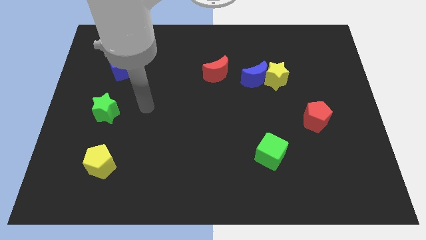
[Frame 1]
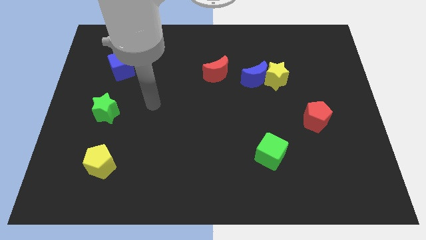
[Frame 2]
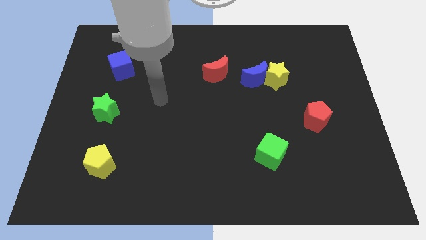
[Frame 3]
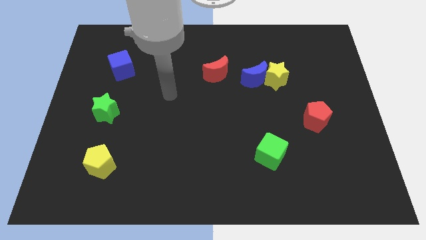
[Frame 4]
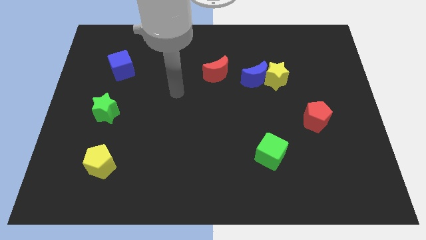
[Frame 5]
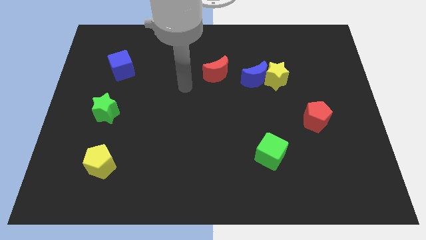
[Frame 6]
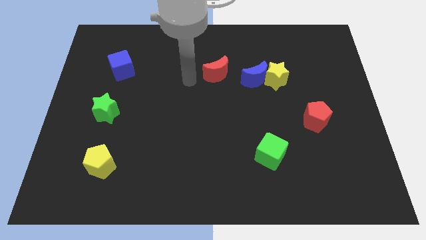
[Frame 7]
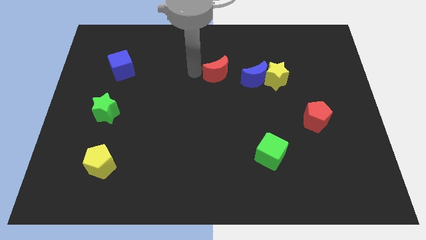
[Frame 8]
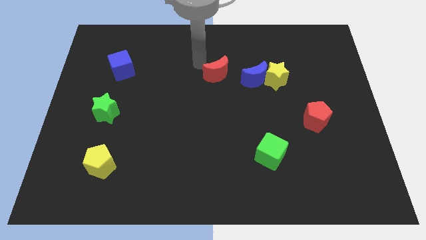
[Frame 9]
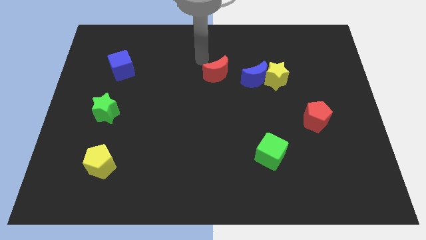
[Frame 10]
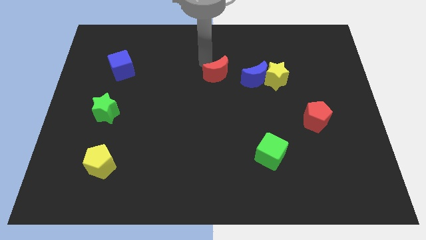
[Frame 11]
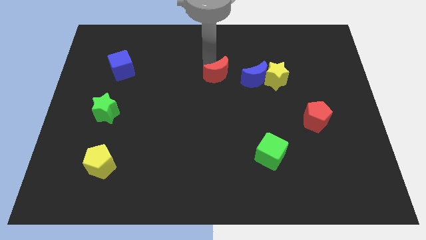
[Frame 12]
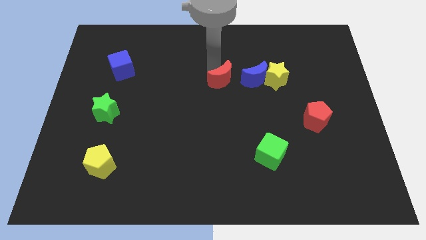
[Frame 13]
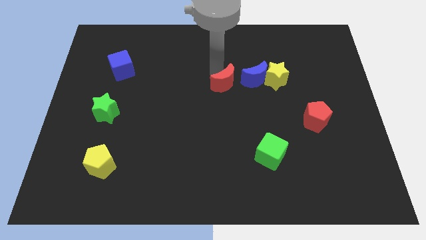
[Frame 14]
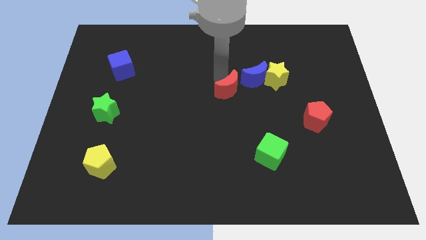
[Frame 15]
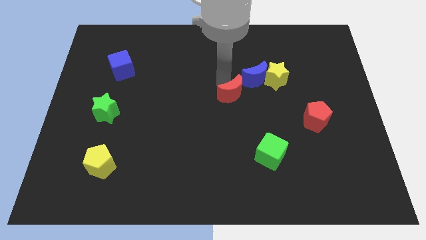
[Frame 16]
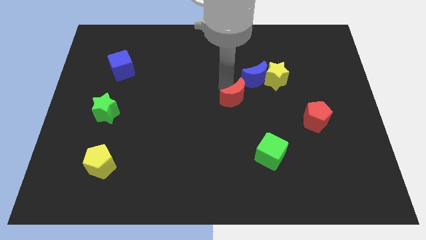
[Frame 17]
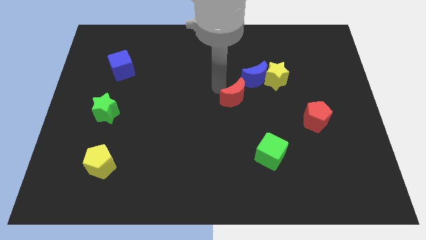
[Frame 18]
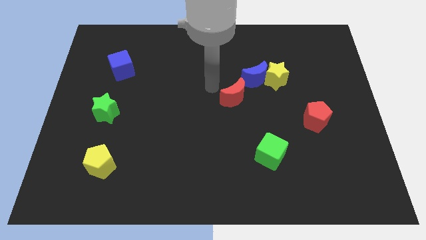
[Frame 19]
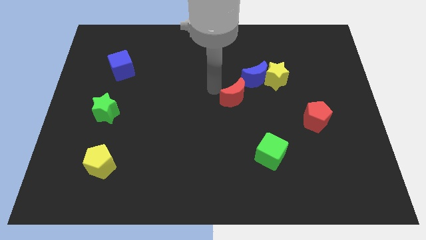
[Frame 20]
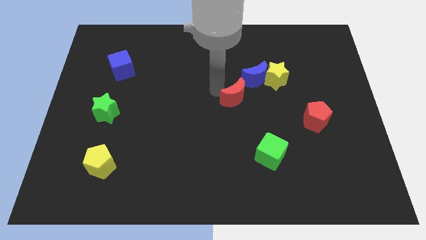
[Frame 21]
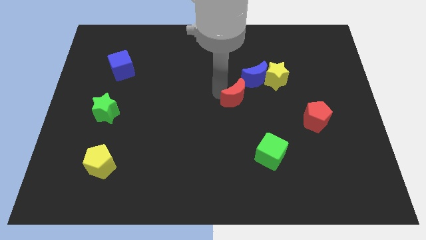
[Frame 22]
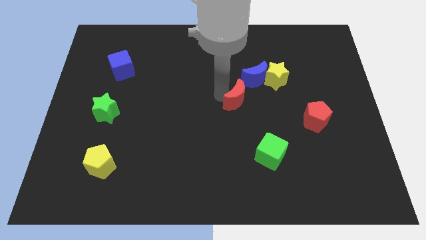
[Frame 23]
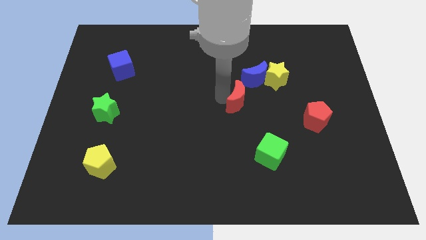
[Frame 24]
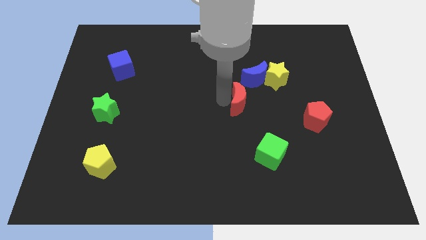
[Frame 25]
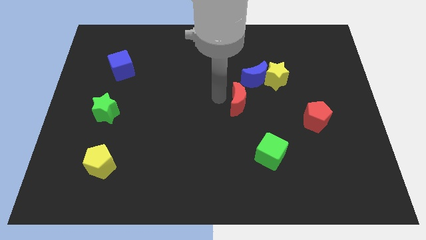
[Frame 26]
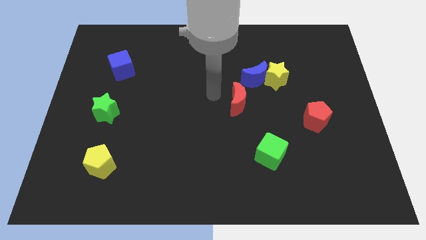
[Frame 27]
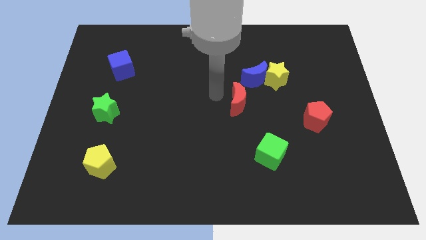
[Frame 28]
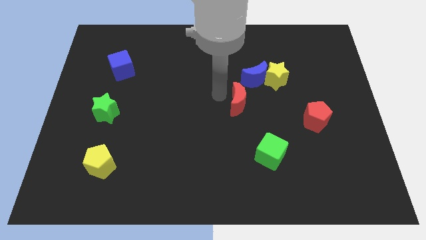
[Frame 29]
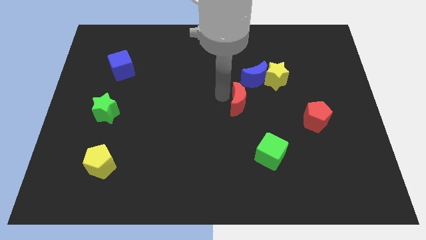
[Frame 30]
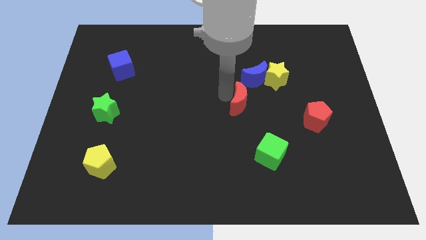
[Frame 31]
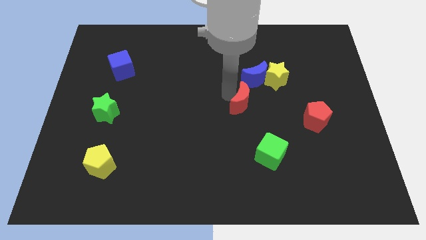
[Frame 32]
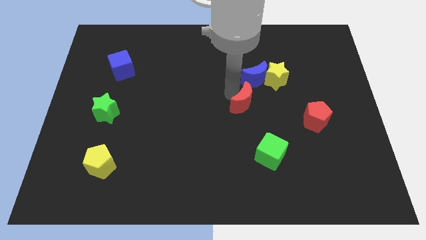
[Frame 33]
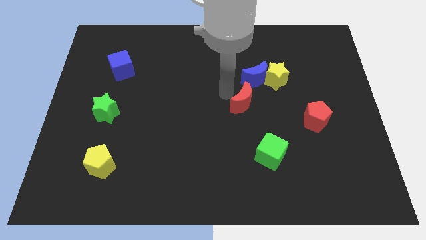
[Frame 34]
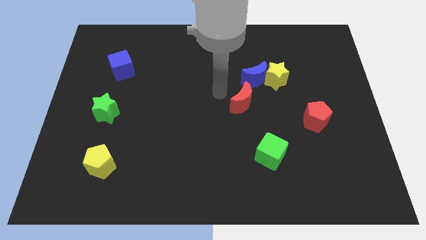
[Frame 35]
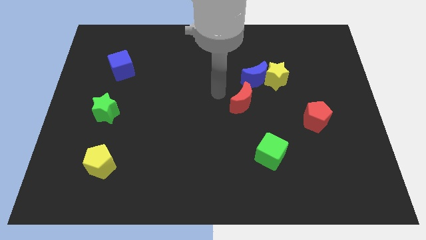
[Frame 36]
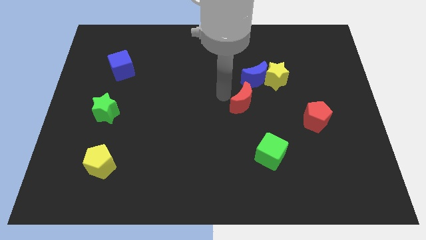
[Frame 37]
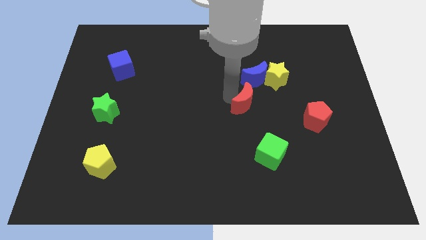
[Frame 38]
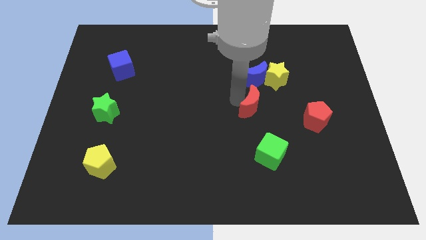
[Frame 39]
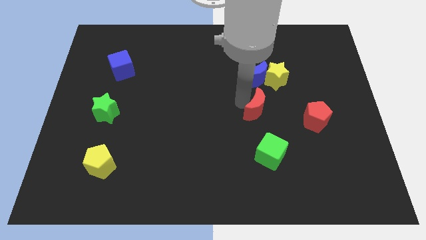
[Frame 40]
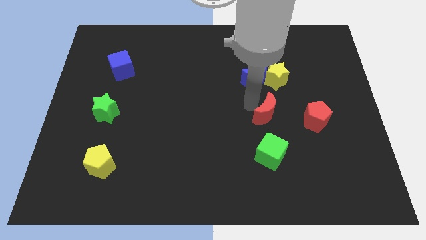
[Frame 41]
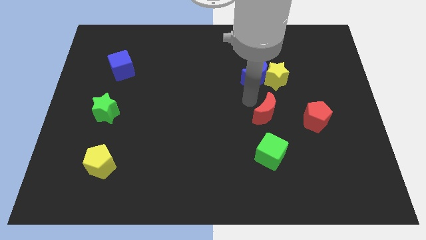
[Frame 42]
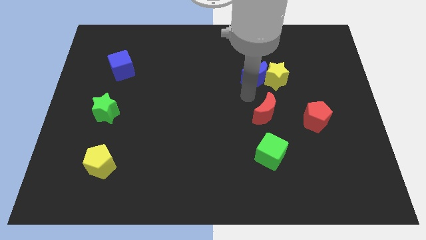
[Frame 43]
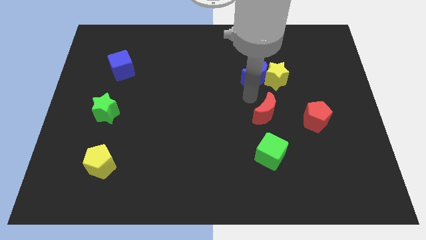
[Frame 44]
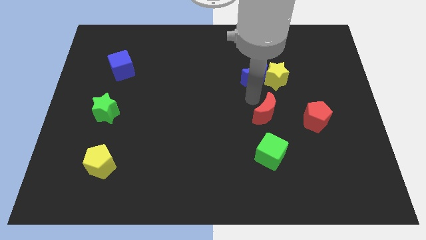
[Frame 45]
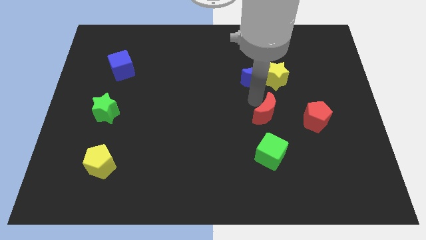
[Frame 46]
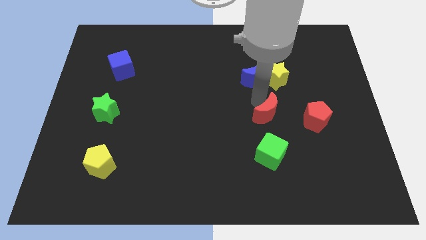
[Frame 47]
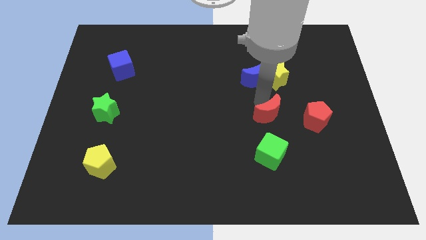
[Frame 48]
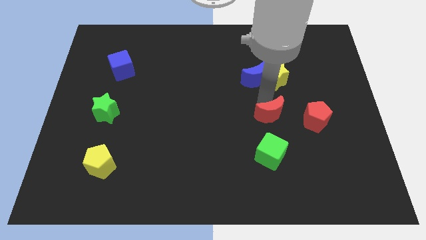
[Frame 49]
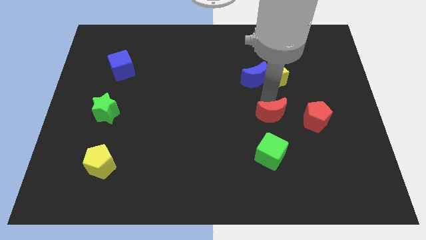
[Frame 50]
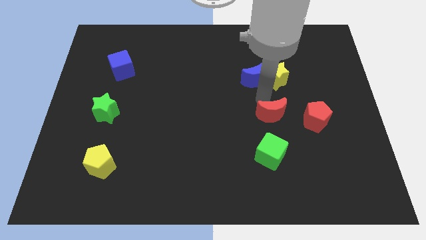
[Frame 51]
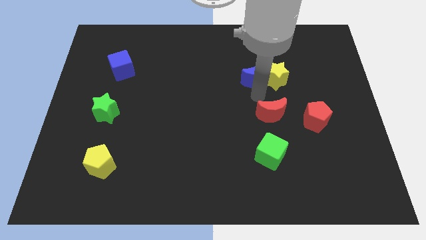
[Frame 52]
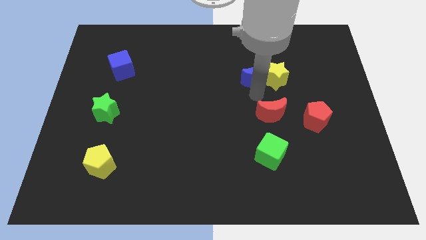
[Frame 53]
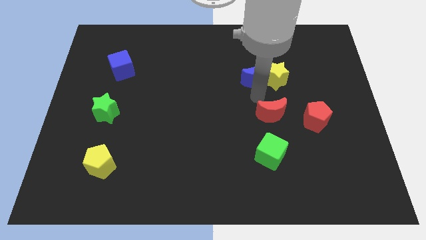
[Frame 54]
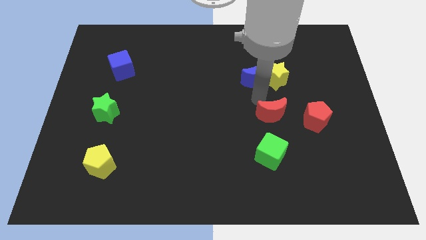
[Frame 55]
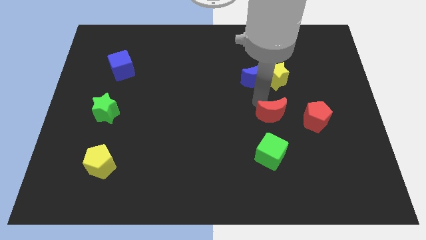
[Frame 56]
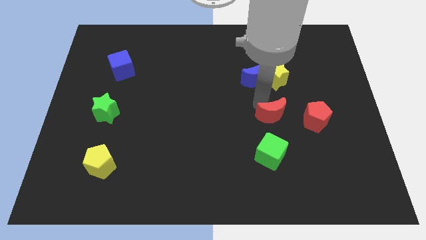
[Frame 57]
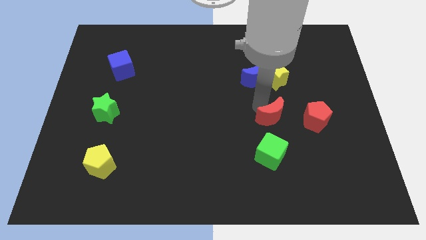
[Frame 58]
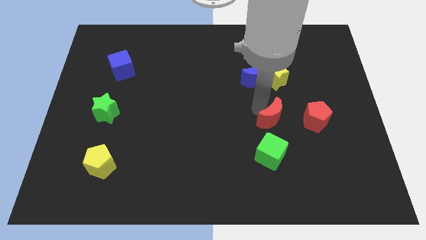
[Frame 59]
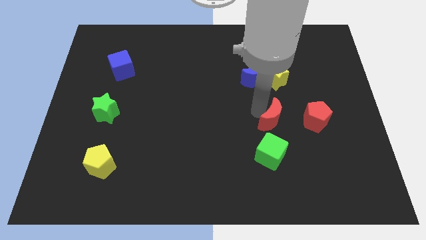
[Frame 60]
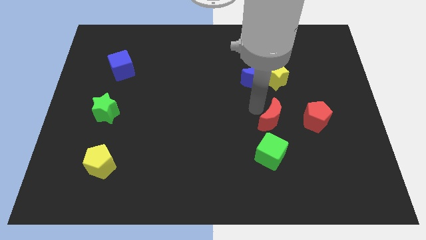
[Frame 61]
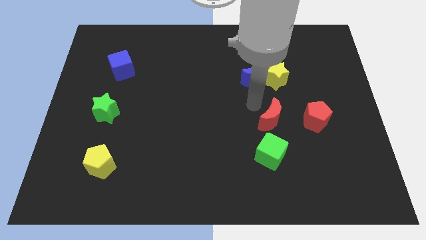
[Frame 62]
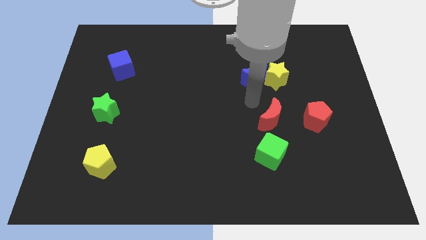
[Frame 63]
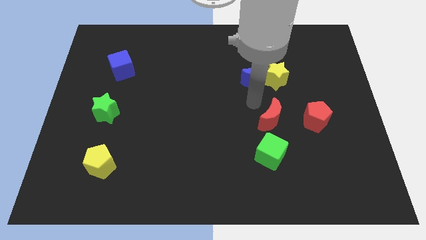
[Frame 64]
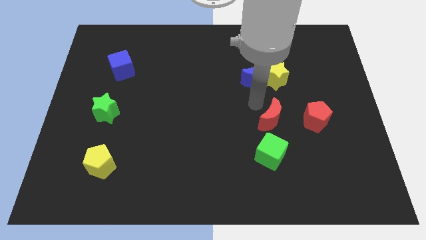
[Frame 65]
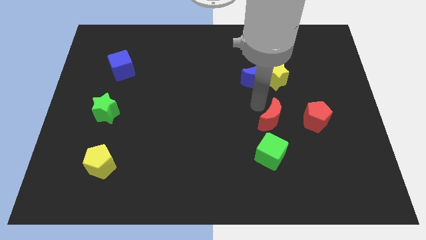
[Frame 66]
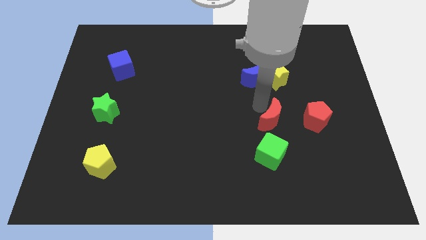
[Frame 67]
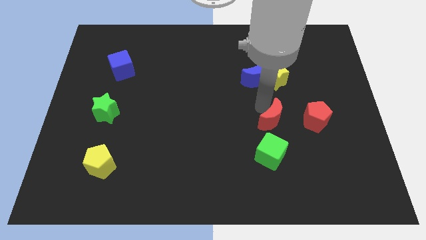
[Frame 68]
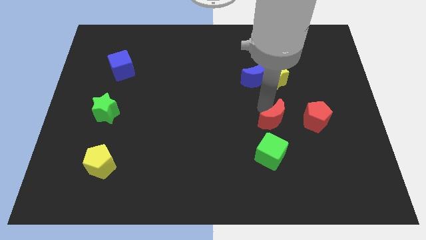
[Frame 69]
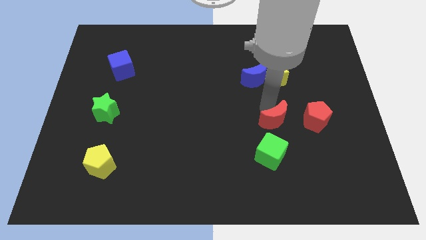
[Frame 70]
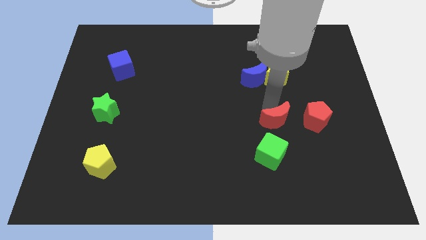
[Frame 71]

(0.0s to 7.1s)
push the red moon diagonally downwards and to the right

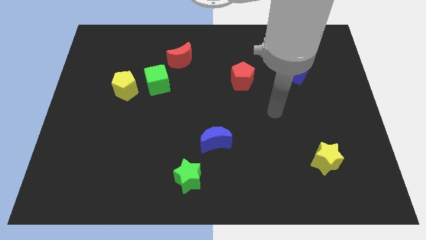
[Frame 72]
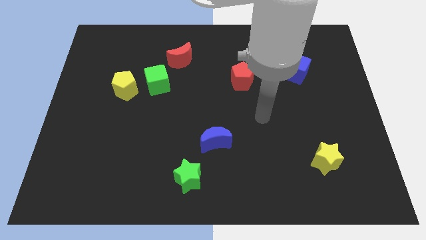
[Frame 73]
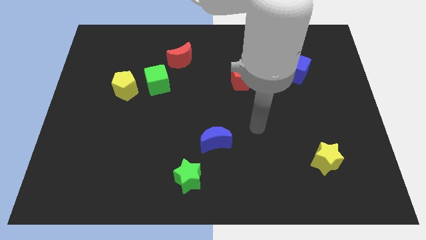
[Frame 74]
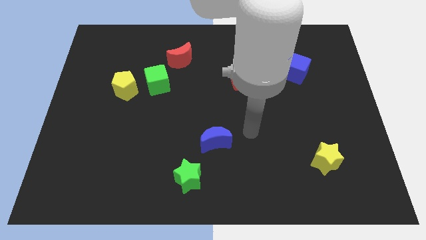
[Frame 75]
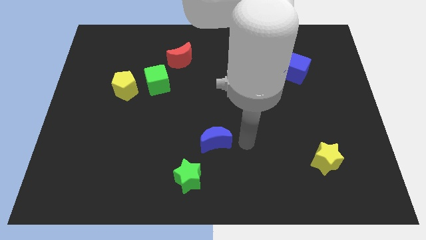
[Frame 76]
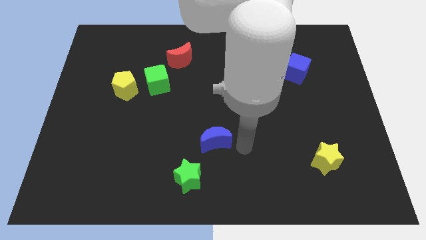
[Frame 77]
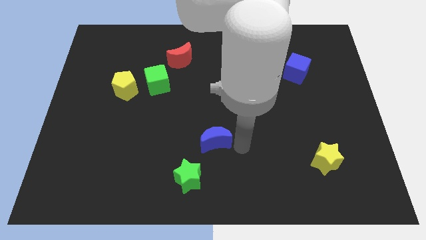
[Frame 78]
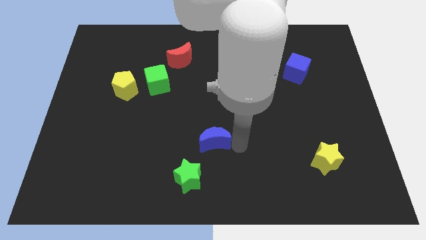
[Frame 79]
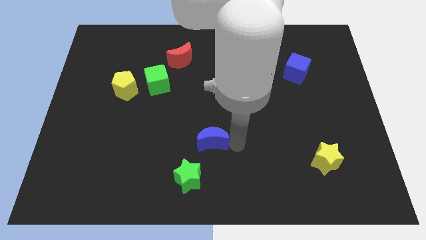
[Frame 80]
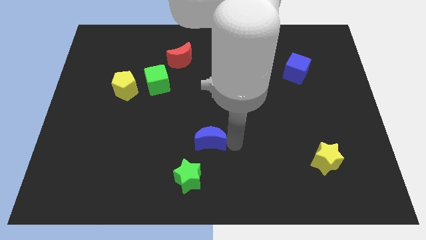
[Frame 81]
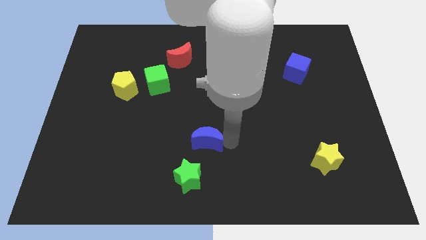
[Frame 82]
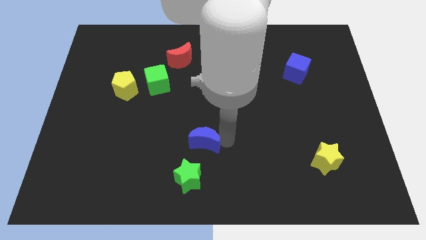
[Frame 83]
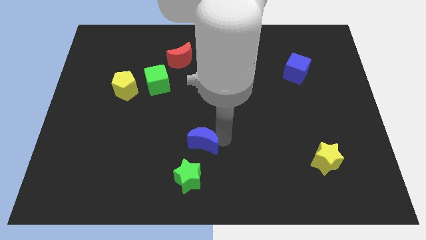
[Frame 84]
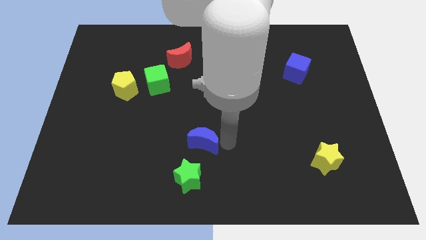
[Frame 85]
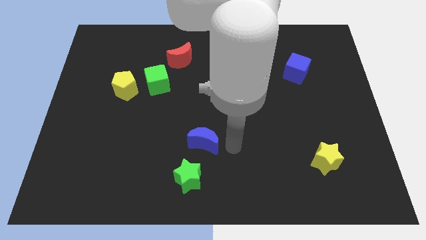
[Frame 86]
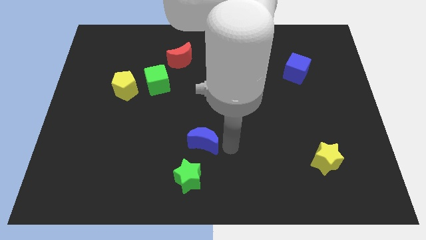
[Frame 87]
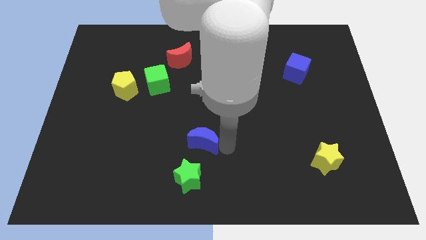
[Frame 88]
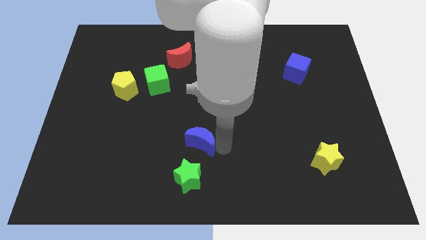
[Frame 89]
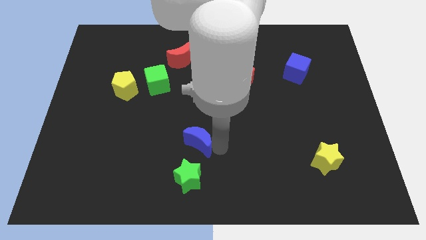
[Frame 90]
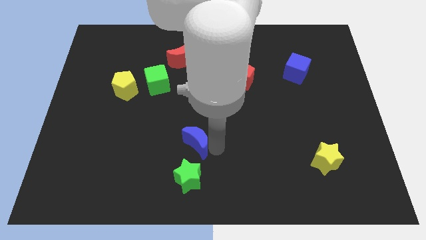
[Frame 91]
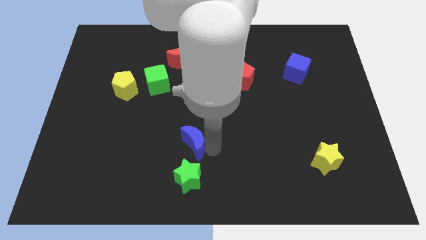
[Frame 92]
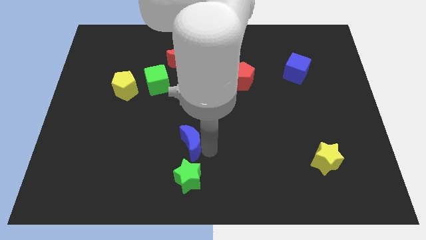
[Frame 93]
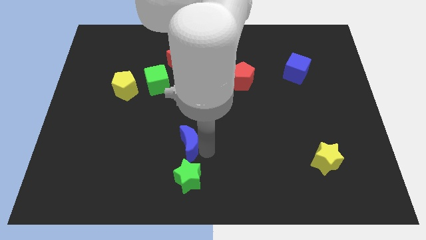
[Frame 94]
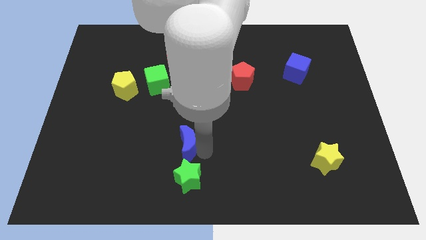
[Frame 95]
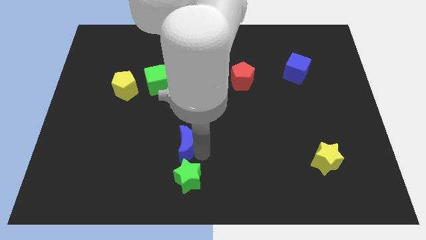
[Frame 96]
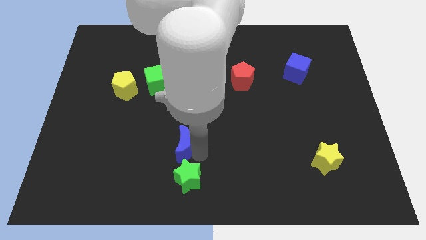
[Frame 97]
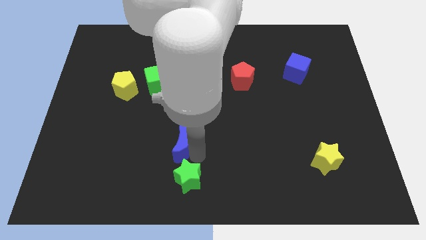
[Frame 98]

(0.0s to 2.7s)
slightly push the blue moon to the left
